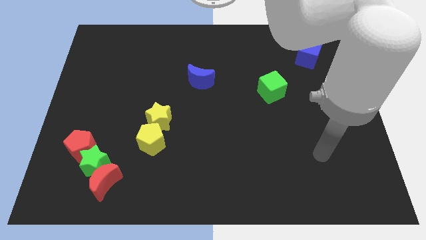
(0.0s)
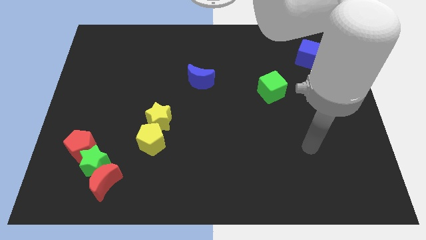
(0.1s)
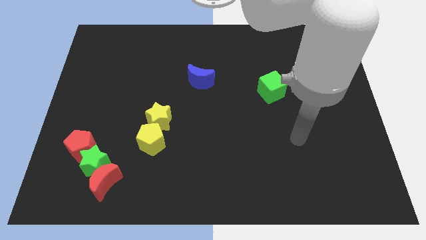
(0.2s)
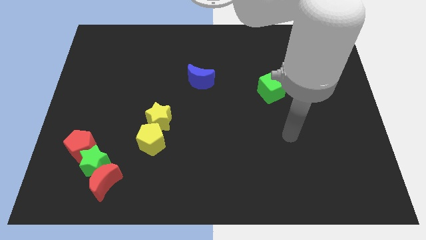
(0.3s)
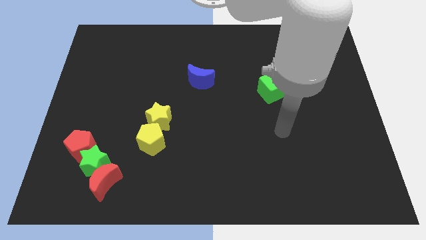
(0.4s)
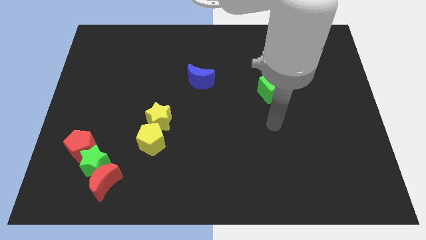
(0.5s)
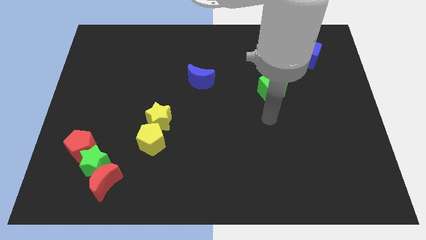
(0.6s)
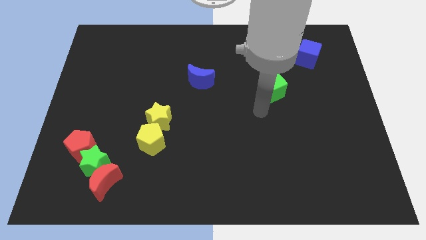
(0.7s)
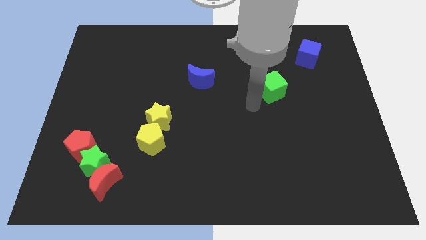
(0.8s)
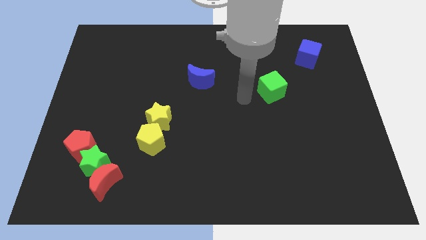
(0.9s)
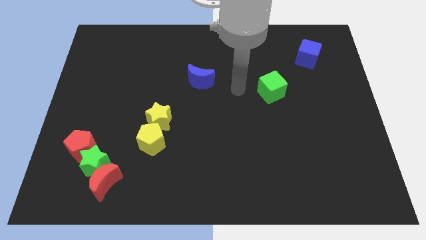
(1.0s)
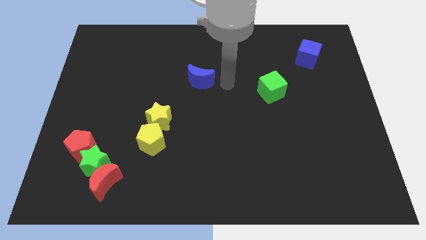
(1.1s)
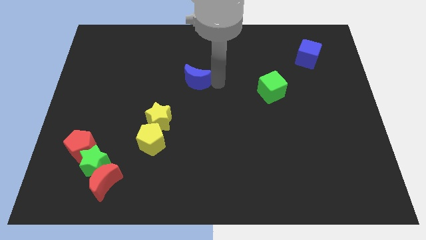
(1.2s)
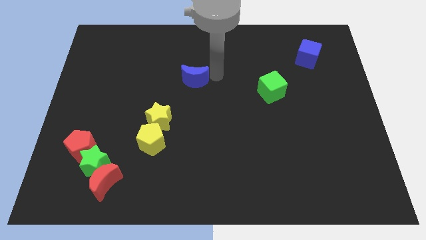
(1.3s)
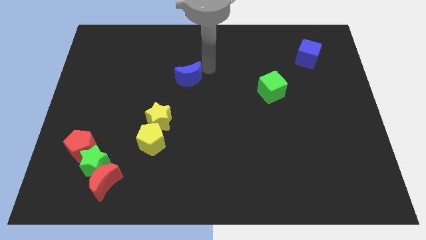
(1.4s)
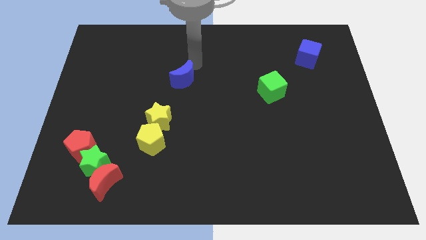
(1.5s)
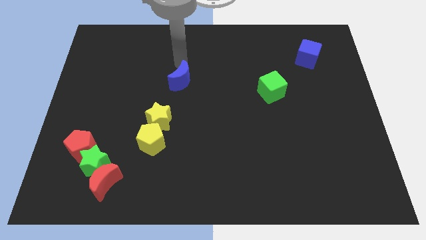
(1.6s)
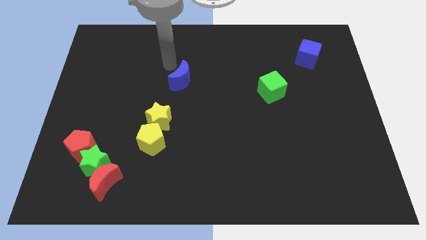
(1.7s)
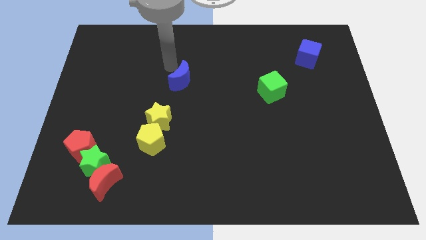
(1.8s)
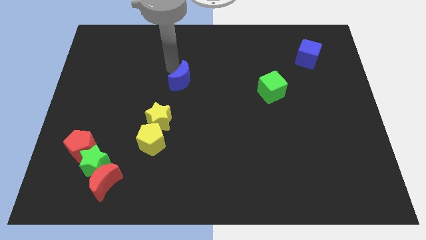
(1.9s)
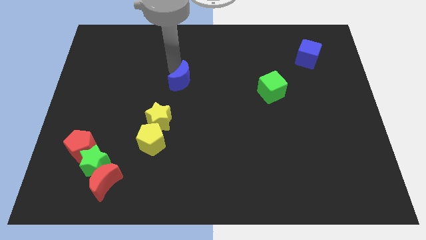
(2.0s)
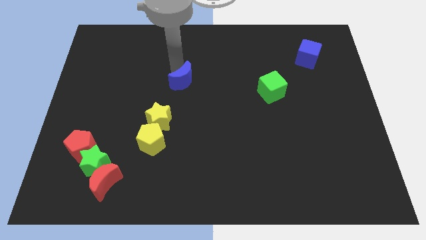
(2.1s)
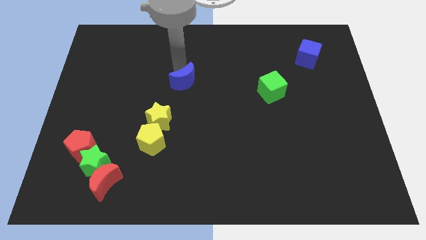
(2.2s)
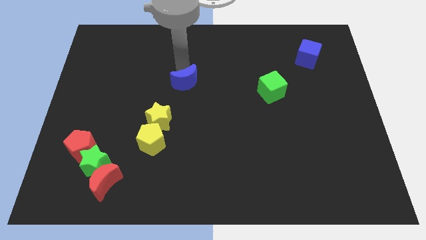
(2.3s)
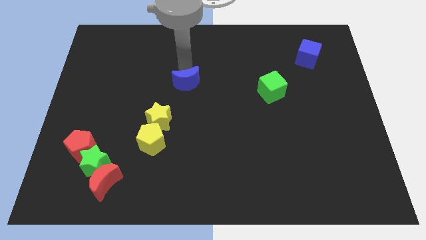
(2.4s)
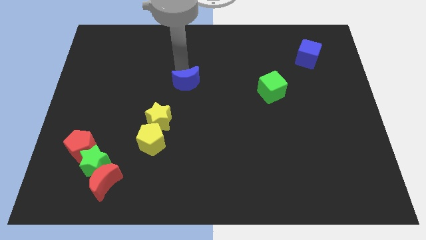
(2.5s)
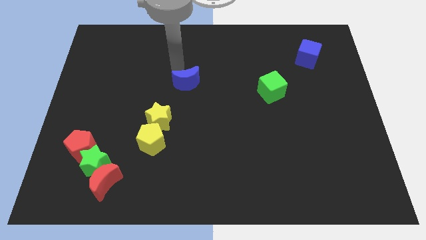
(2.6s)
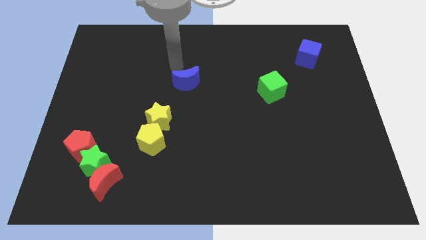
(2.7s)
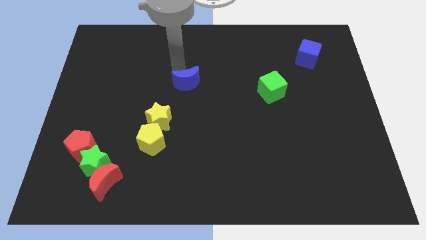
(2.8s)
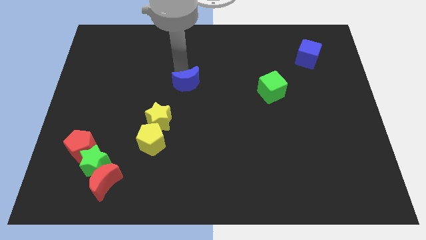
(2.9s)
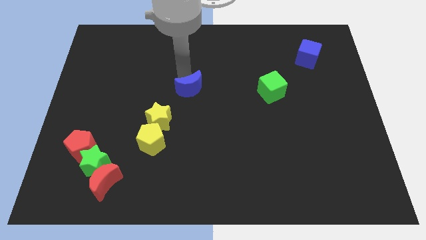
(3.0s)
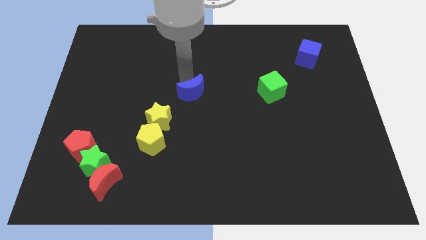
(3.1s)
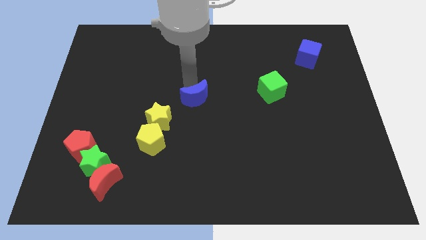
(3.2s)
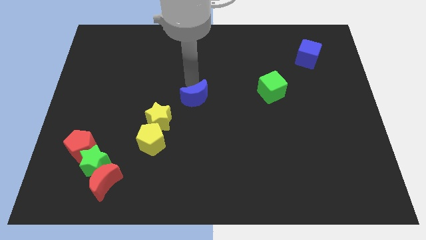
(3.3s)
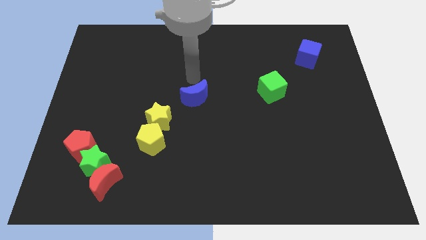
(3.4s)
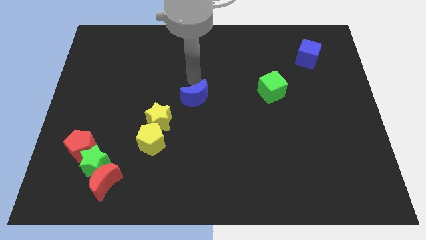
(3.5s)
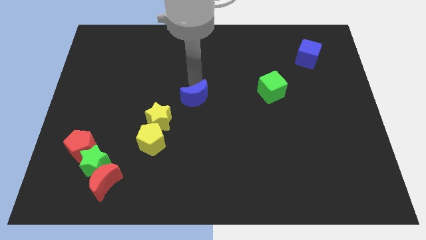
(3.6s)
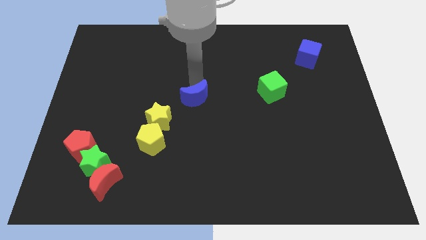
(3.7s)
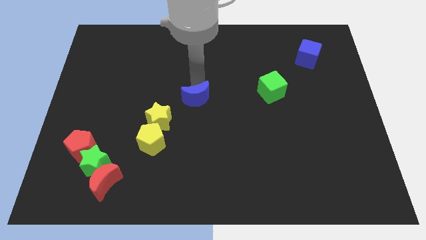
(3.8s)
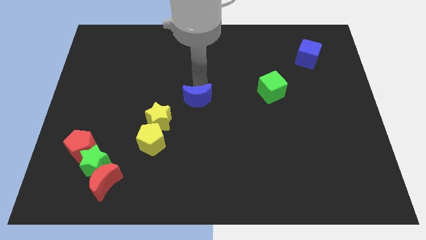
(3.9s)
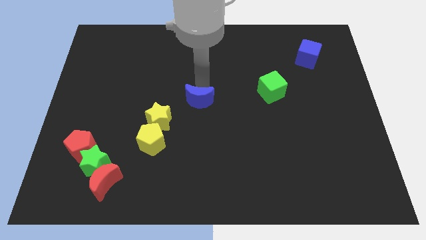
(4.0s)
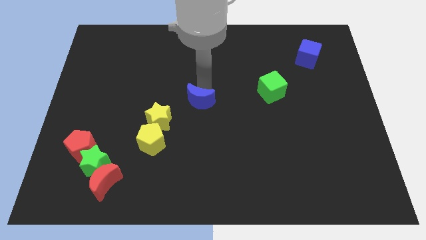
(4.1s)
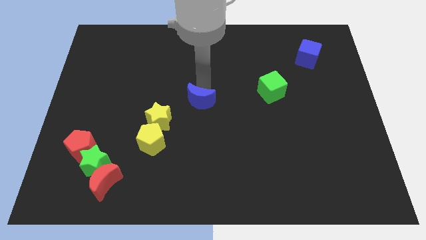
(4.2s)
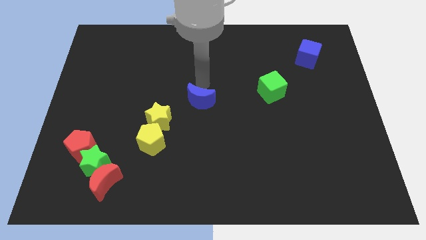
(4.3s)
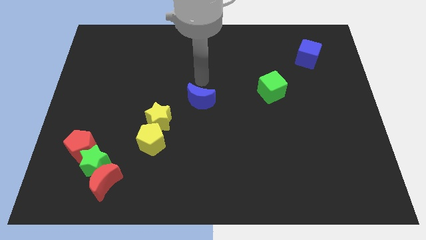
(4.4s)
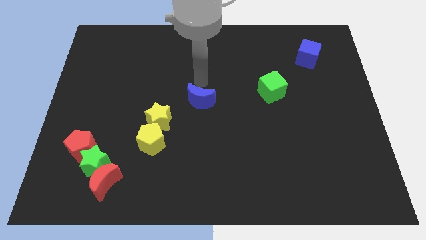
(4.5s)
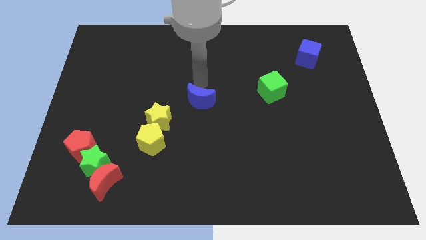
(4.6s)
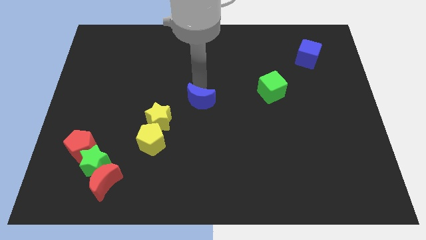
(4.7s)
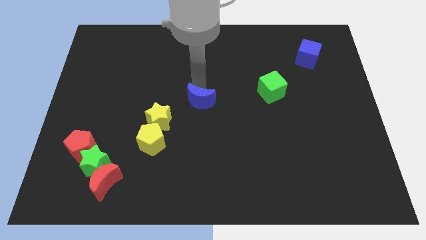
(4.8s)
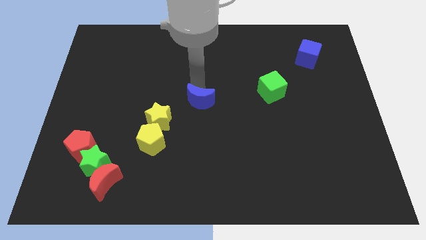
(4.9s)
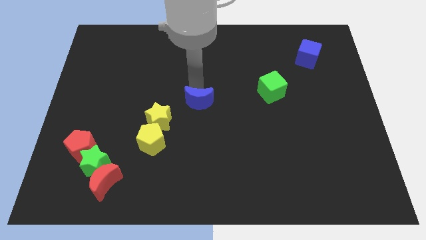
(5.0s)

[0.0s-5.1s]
slightly slide the blue moon down

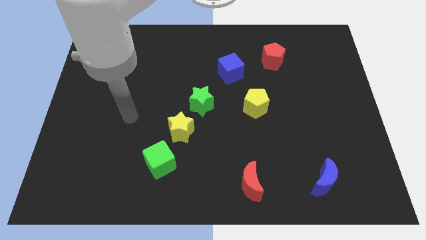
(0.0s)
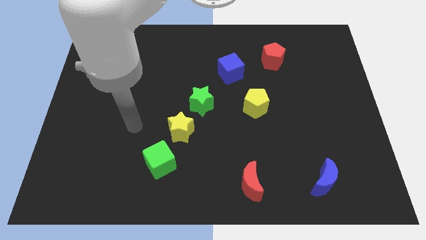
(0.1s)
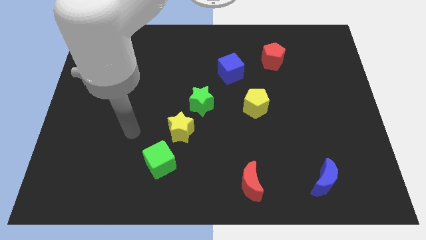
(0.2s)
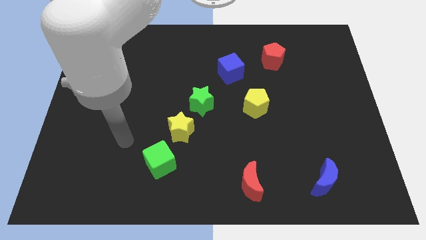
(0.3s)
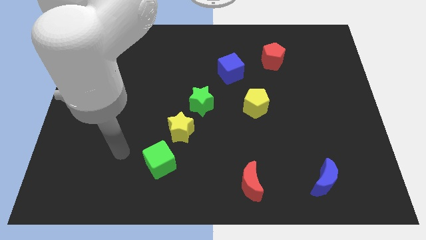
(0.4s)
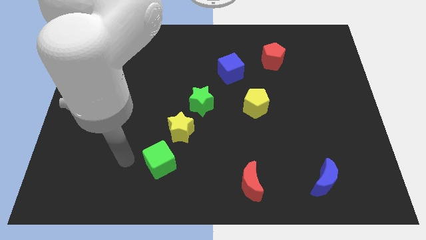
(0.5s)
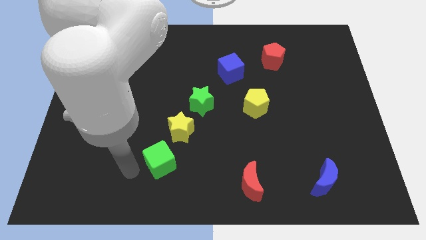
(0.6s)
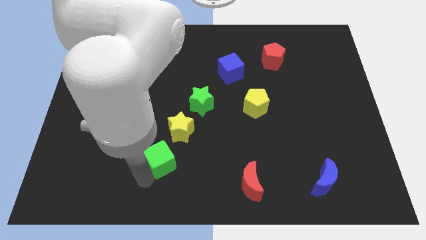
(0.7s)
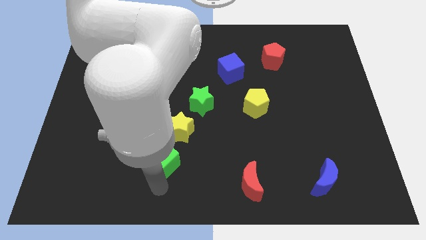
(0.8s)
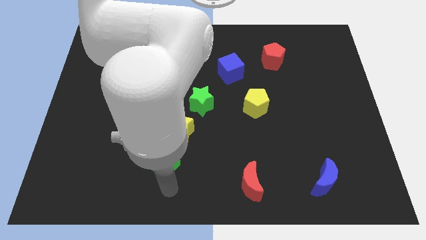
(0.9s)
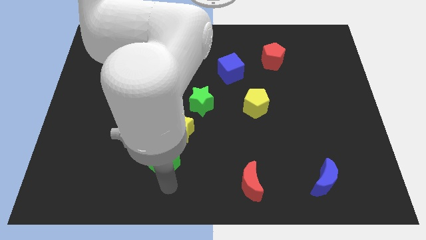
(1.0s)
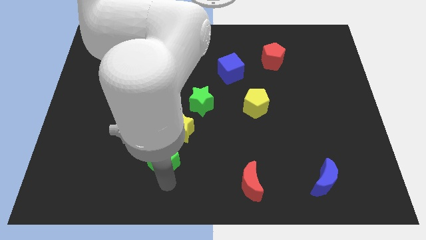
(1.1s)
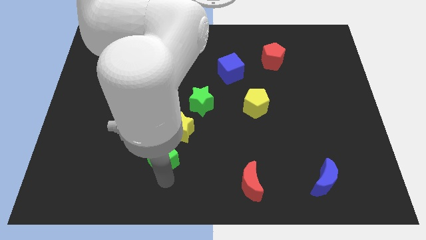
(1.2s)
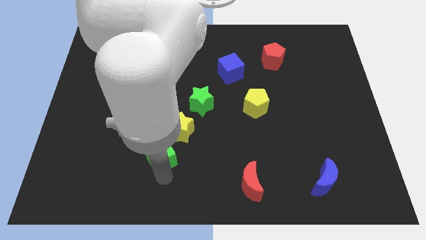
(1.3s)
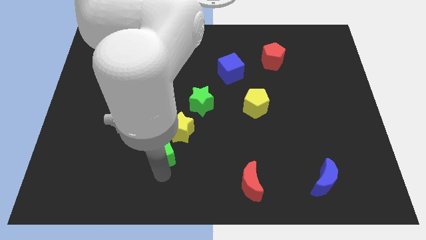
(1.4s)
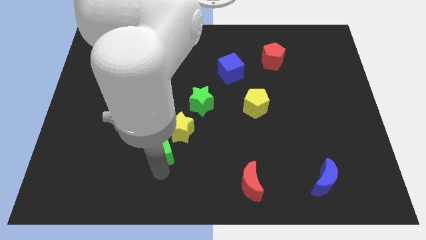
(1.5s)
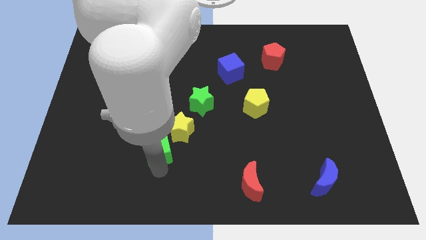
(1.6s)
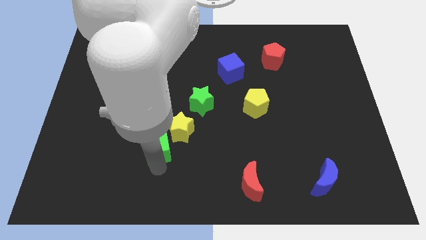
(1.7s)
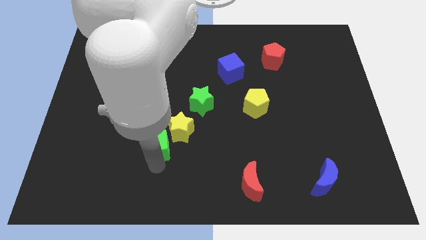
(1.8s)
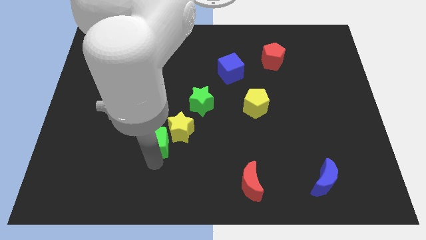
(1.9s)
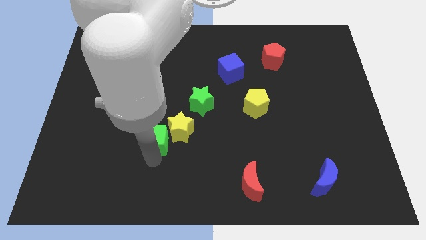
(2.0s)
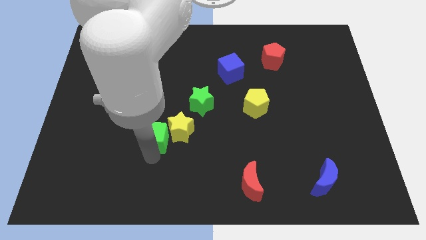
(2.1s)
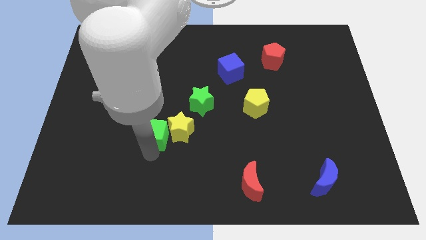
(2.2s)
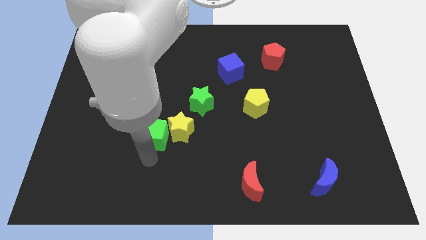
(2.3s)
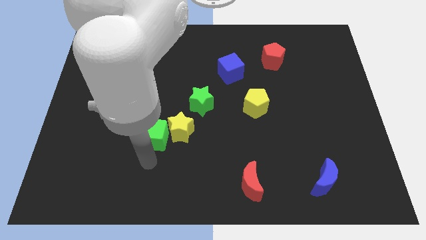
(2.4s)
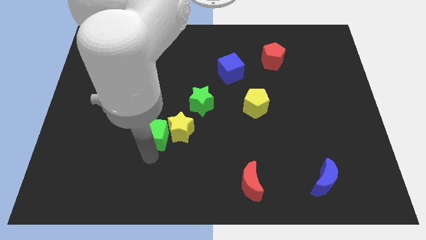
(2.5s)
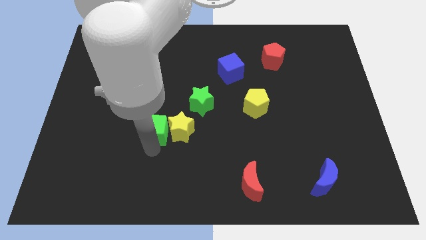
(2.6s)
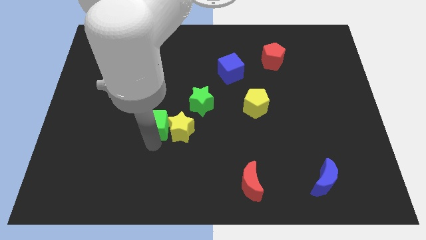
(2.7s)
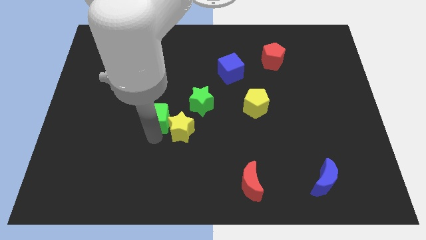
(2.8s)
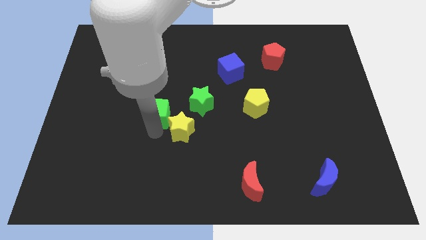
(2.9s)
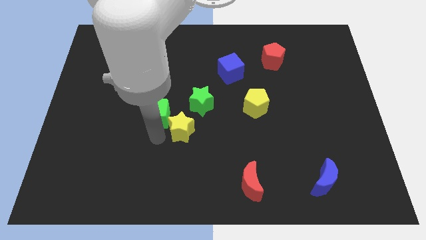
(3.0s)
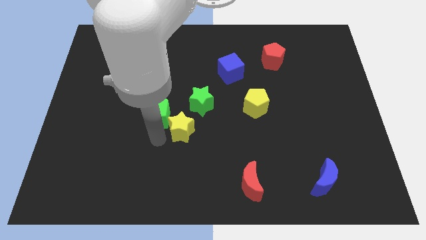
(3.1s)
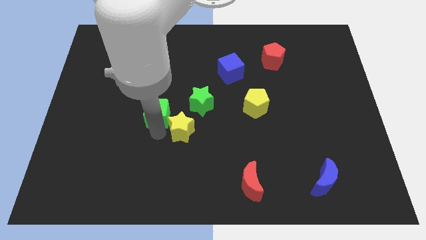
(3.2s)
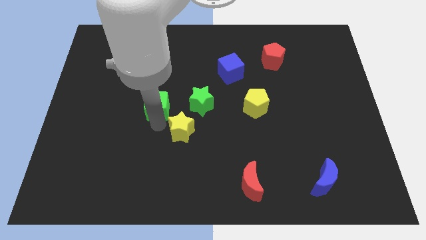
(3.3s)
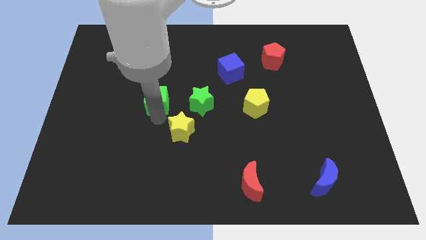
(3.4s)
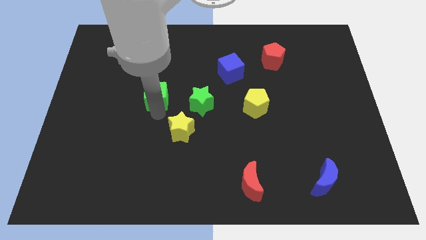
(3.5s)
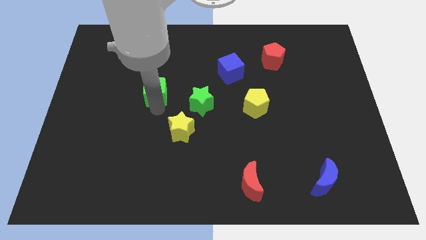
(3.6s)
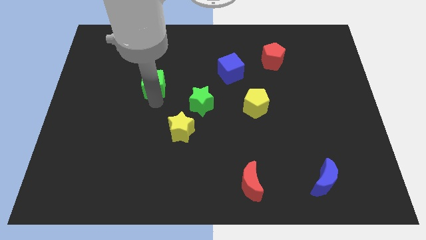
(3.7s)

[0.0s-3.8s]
push the green cube upwards
